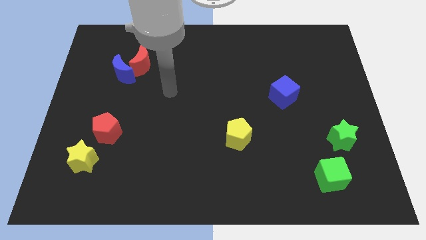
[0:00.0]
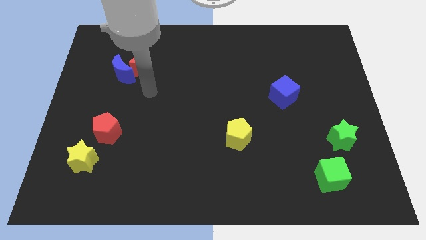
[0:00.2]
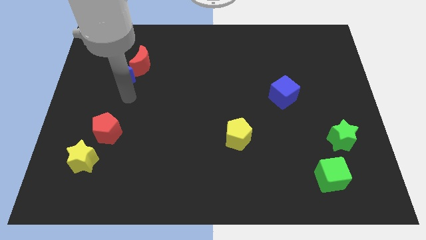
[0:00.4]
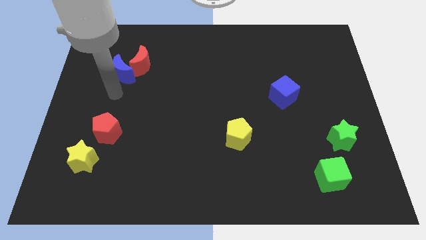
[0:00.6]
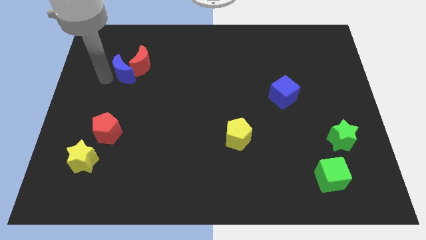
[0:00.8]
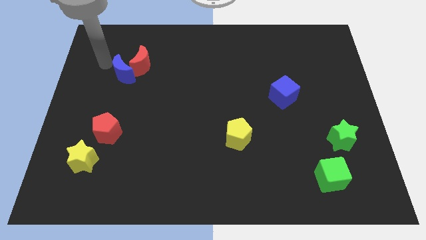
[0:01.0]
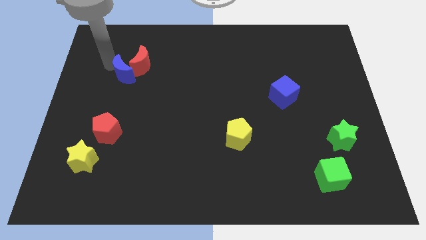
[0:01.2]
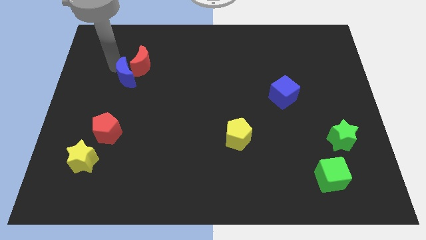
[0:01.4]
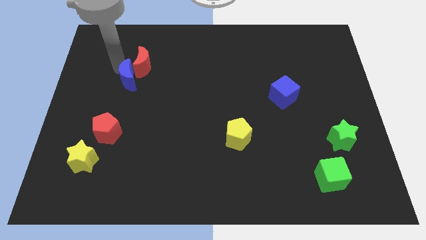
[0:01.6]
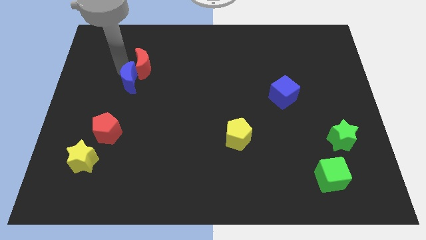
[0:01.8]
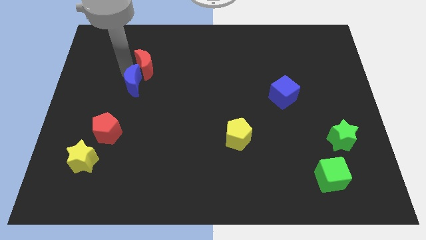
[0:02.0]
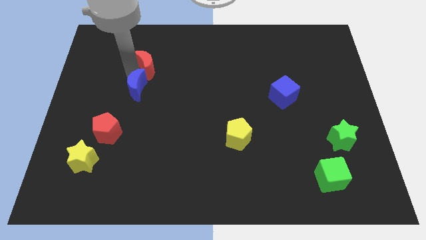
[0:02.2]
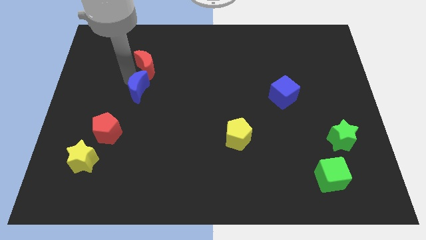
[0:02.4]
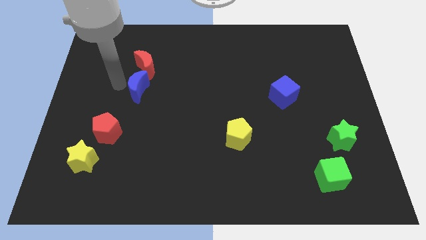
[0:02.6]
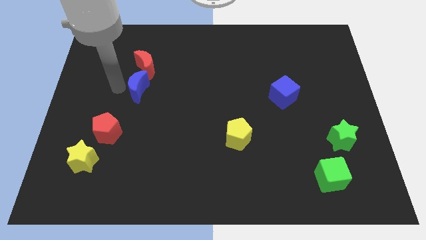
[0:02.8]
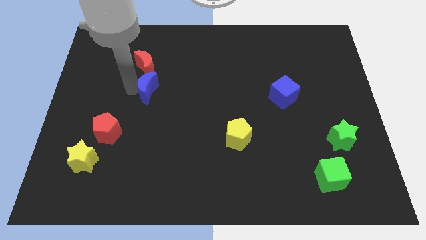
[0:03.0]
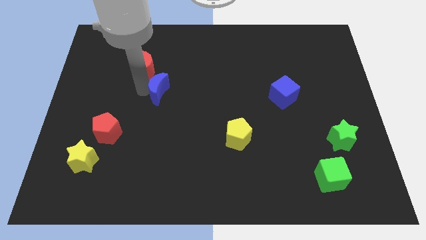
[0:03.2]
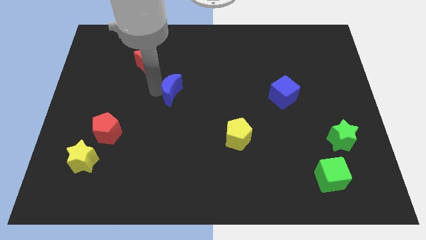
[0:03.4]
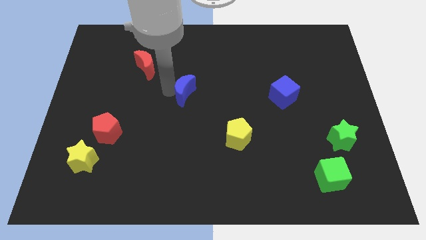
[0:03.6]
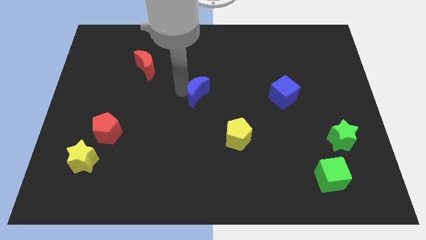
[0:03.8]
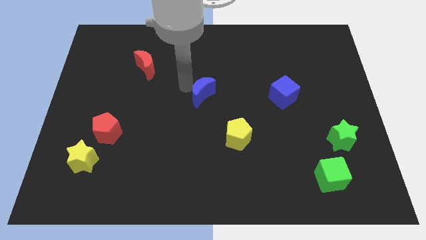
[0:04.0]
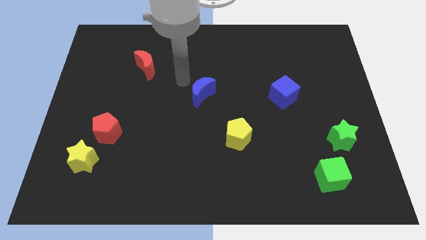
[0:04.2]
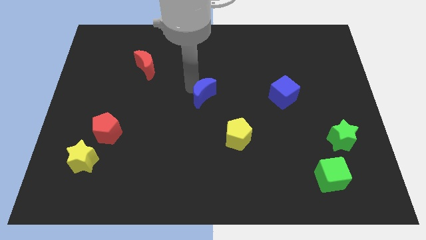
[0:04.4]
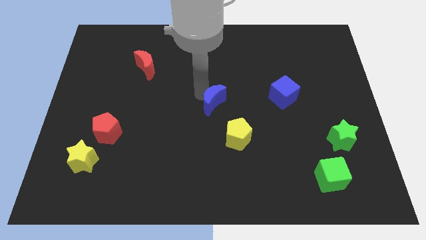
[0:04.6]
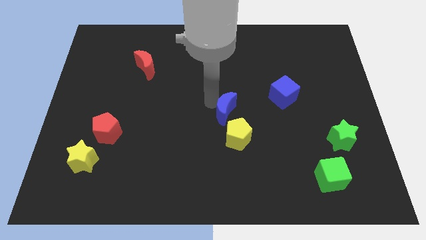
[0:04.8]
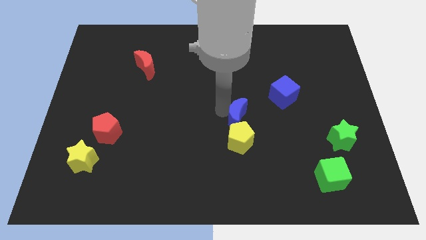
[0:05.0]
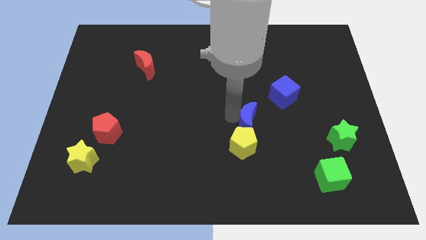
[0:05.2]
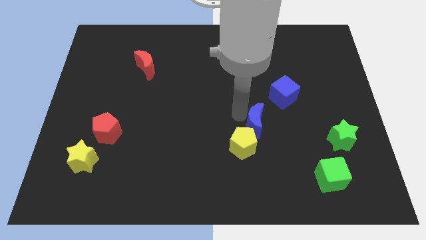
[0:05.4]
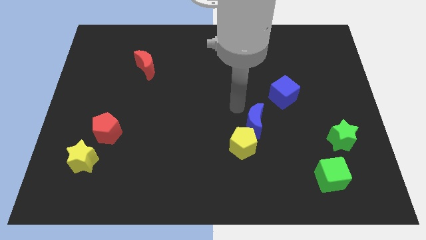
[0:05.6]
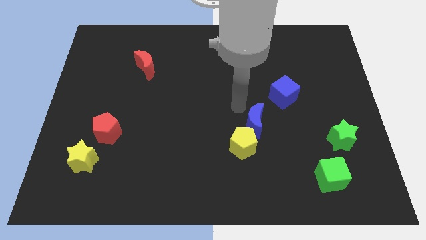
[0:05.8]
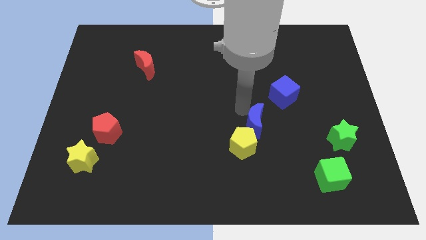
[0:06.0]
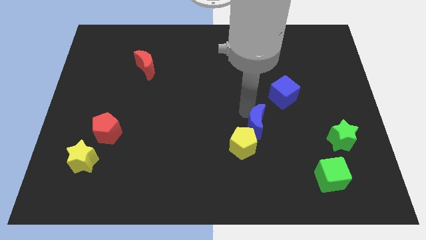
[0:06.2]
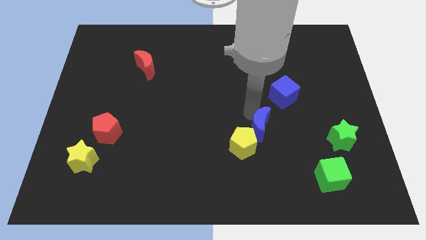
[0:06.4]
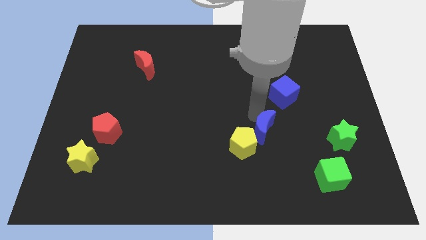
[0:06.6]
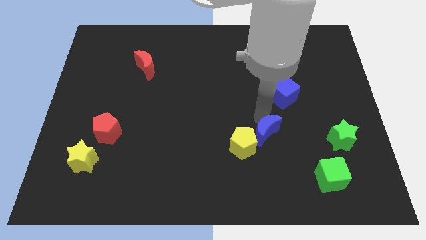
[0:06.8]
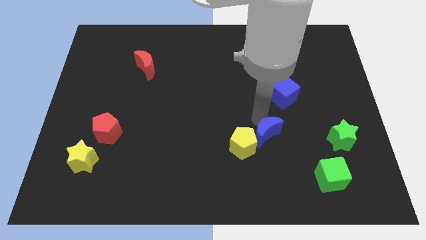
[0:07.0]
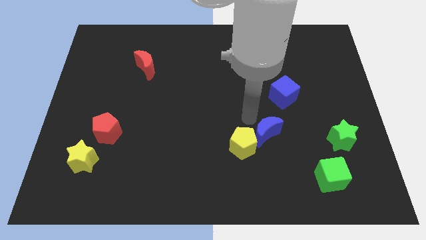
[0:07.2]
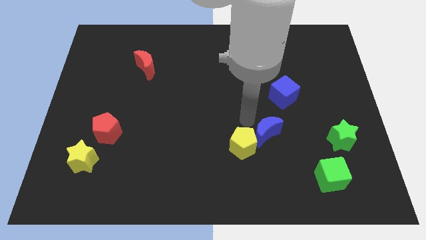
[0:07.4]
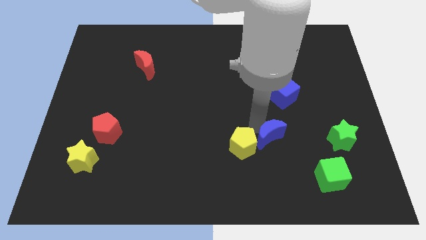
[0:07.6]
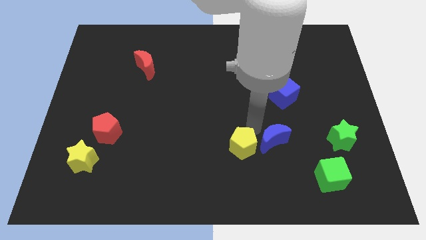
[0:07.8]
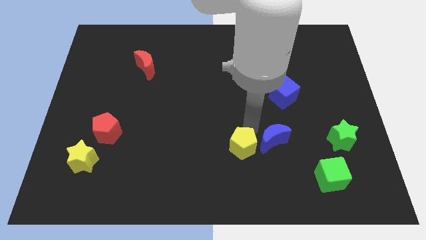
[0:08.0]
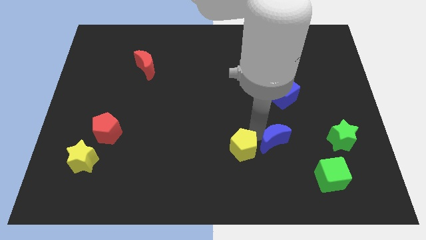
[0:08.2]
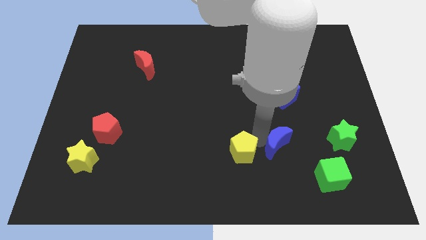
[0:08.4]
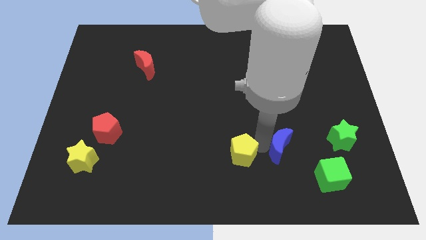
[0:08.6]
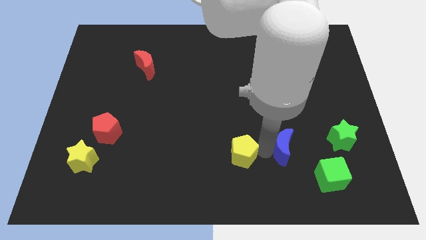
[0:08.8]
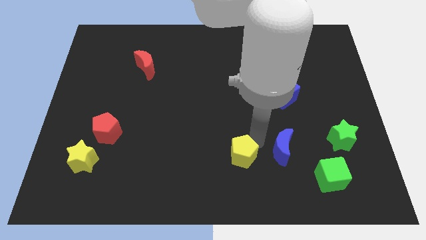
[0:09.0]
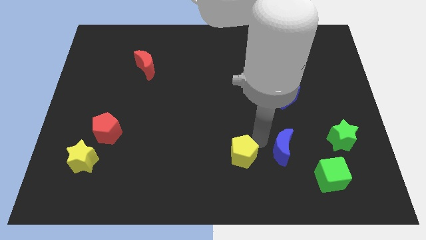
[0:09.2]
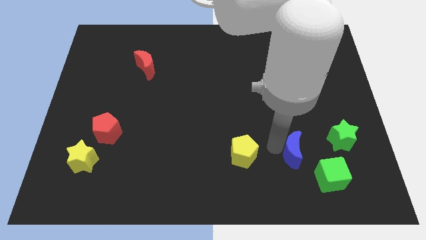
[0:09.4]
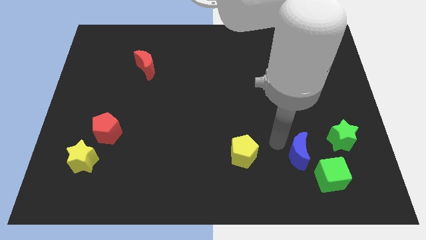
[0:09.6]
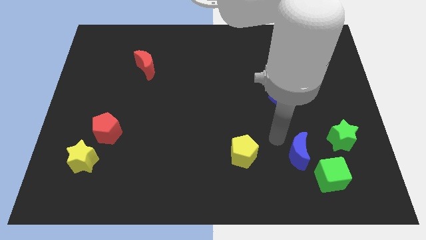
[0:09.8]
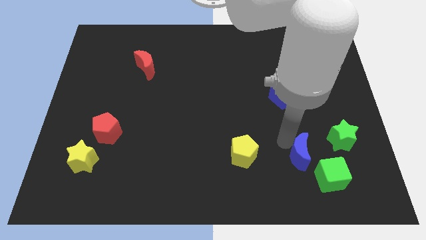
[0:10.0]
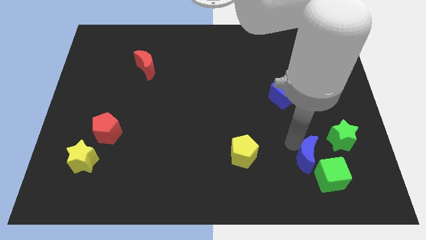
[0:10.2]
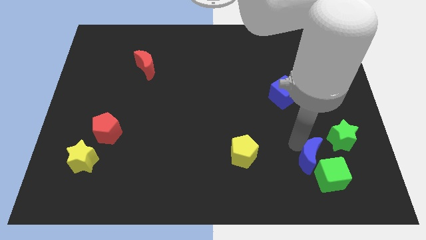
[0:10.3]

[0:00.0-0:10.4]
move the blue moon close to the green cube

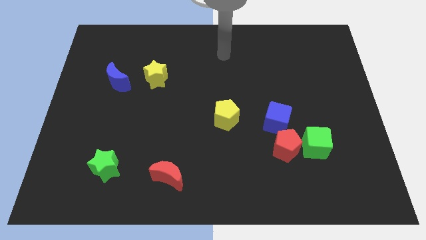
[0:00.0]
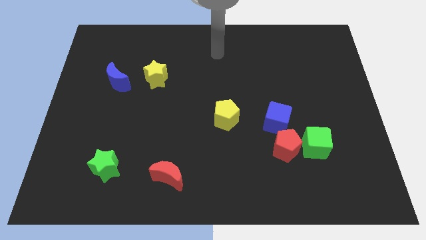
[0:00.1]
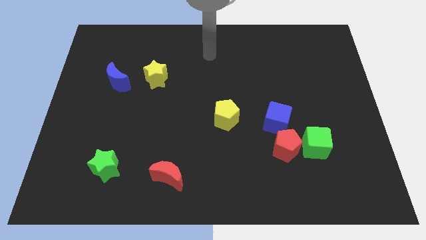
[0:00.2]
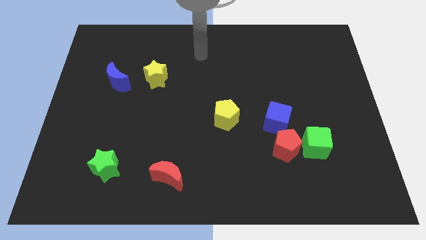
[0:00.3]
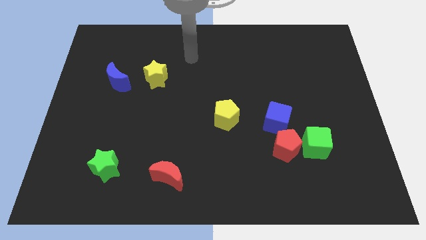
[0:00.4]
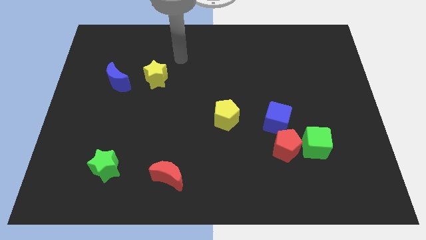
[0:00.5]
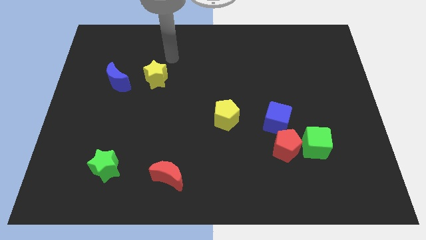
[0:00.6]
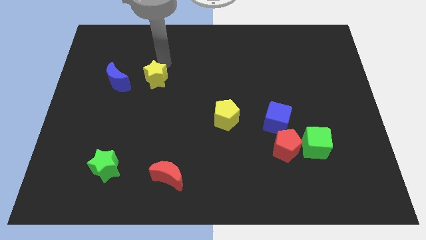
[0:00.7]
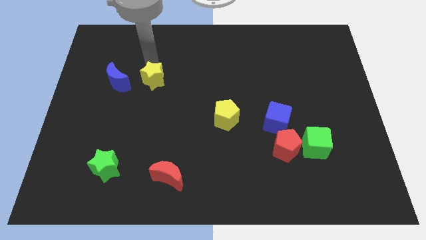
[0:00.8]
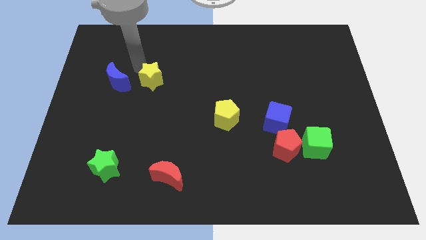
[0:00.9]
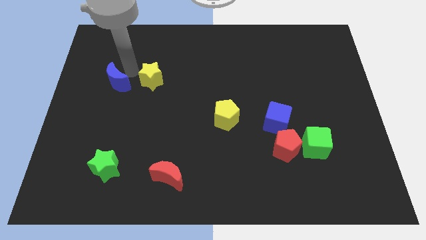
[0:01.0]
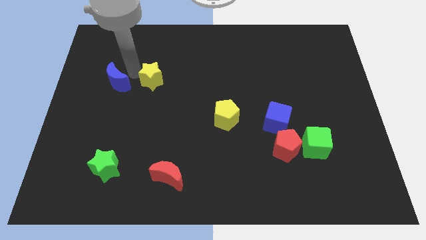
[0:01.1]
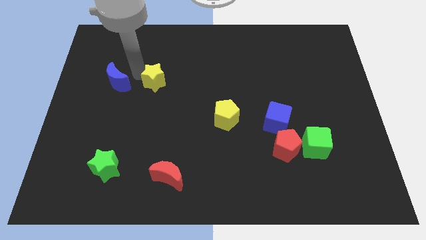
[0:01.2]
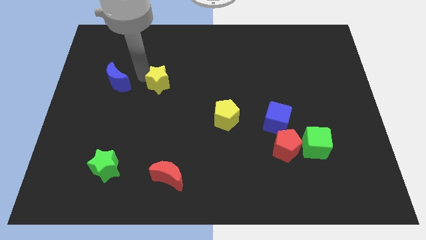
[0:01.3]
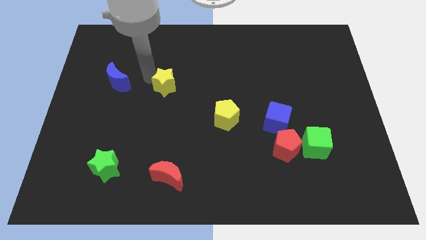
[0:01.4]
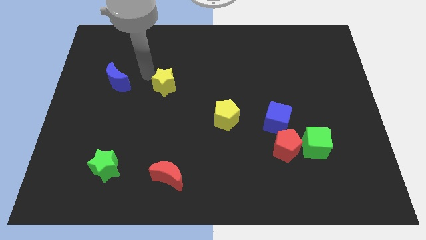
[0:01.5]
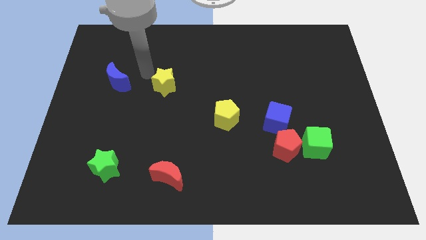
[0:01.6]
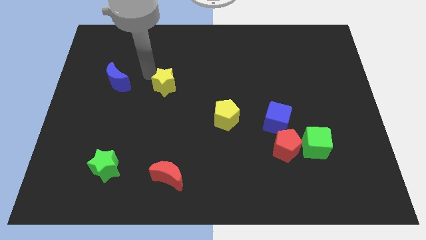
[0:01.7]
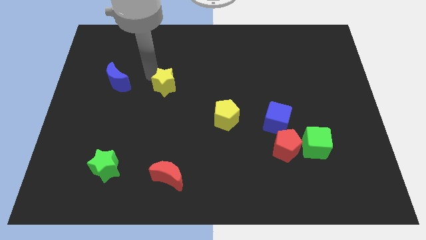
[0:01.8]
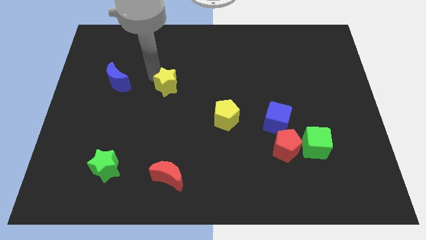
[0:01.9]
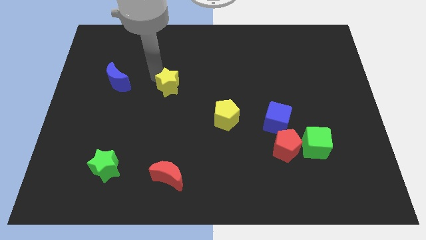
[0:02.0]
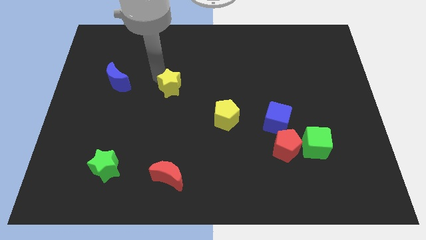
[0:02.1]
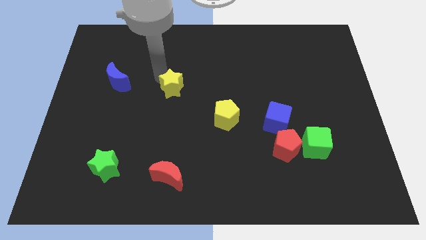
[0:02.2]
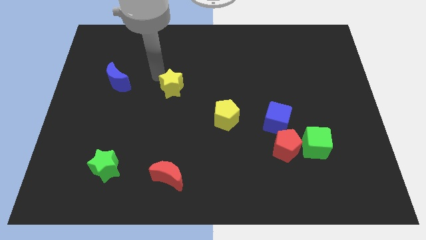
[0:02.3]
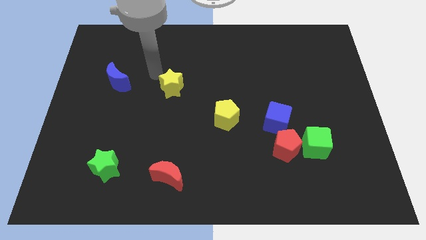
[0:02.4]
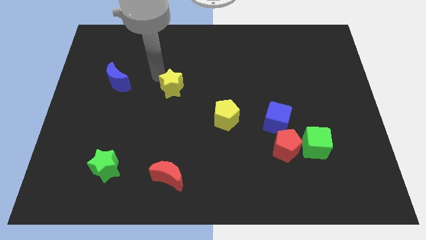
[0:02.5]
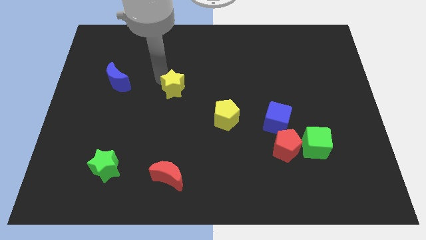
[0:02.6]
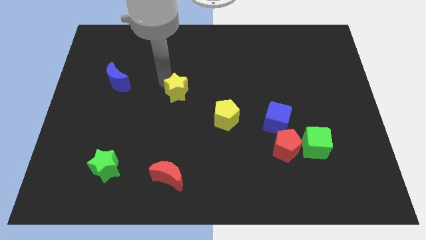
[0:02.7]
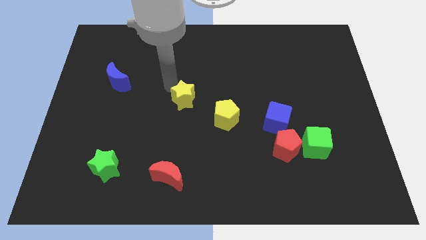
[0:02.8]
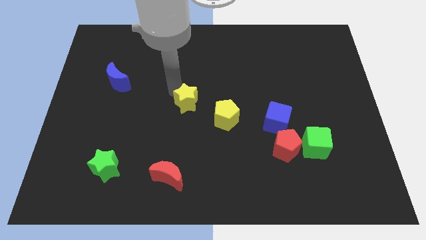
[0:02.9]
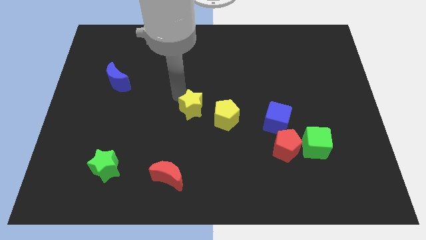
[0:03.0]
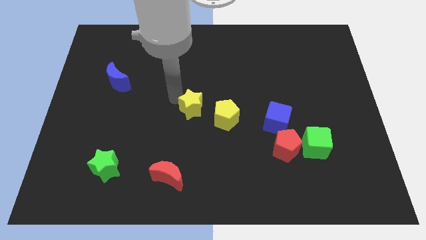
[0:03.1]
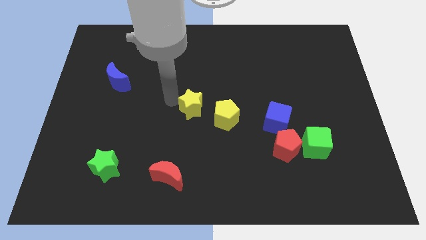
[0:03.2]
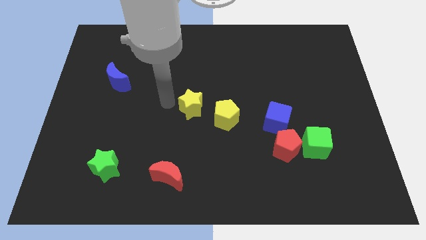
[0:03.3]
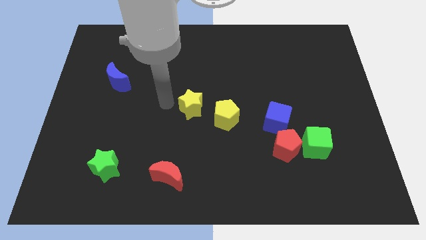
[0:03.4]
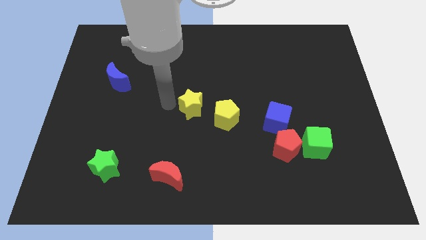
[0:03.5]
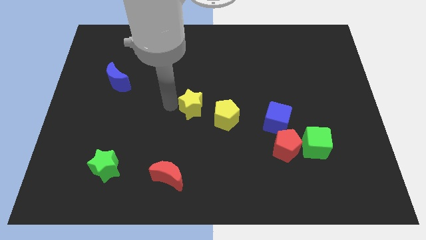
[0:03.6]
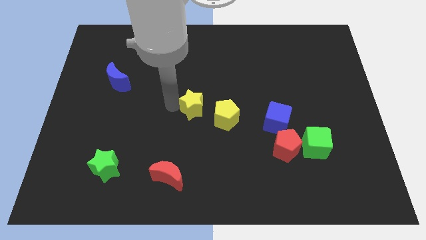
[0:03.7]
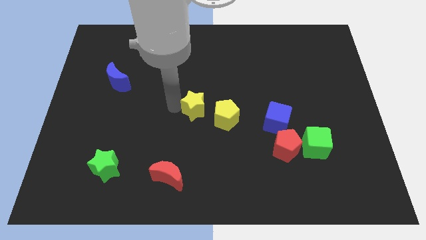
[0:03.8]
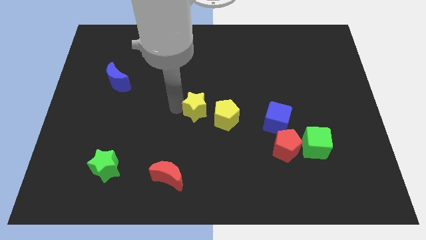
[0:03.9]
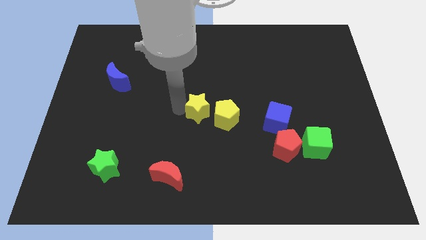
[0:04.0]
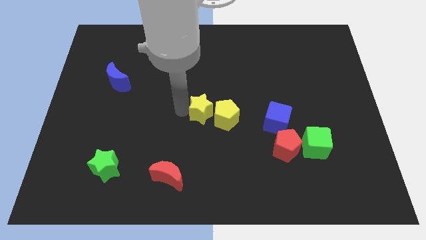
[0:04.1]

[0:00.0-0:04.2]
put the yellow star towards the yellow pentagon
